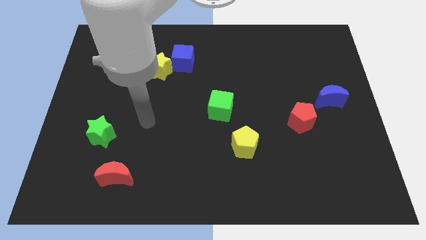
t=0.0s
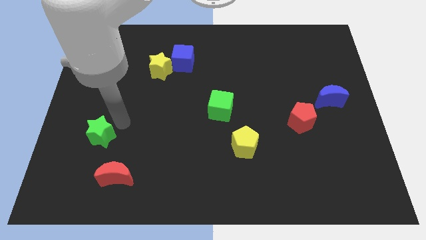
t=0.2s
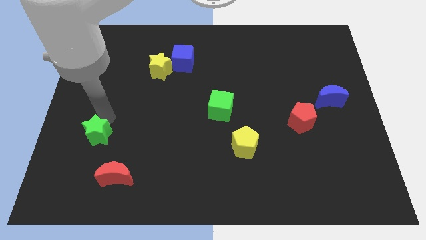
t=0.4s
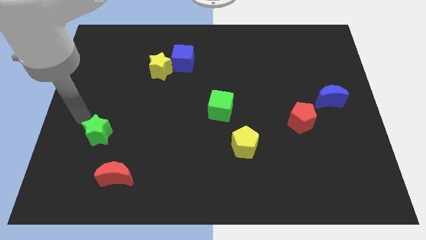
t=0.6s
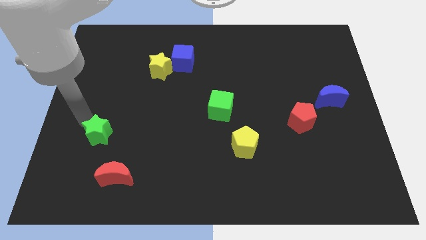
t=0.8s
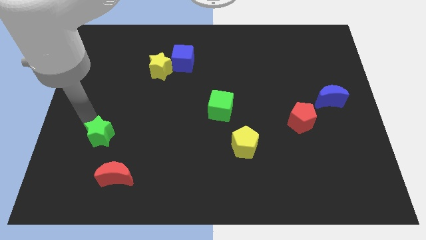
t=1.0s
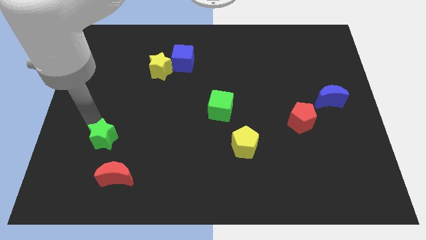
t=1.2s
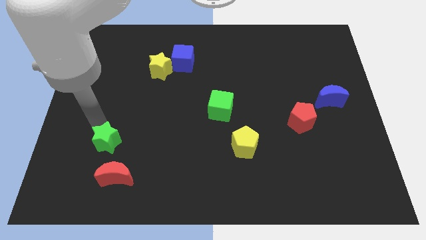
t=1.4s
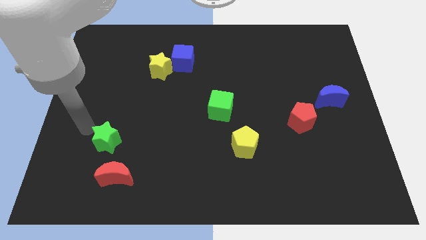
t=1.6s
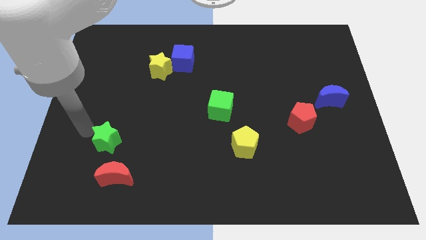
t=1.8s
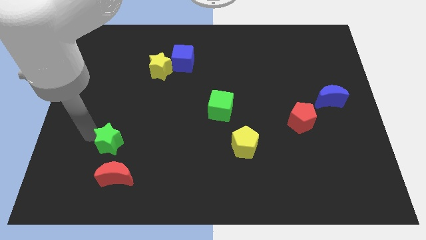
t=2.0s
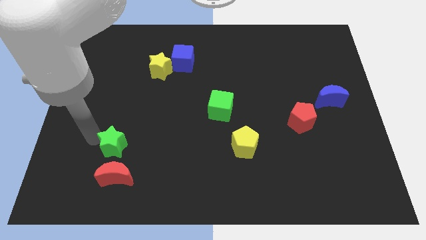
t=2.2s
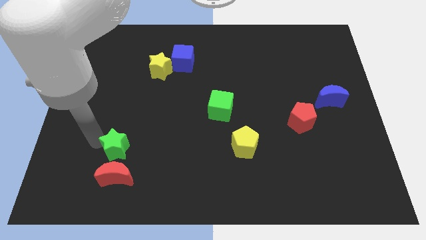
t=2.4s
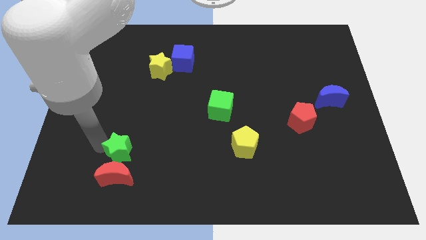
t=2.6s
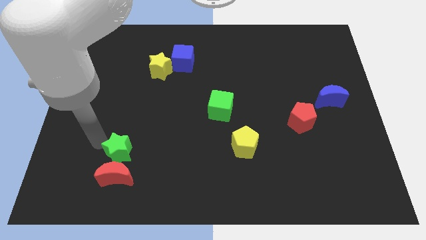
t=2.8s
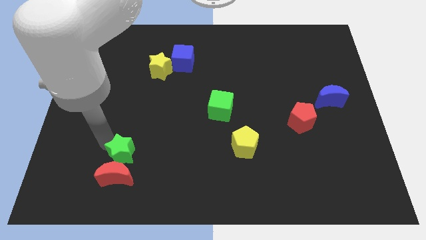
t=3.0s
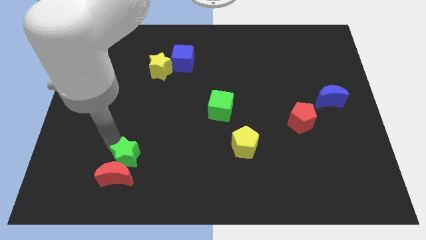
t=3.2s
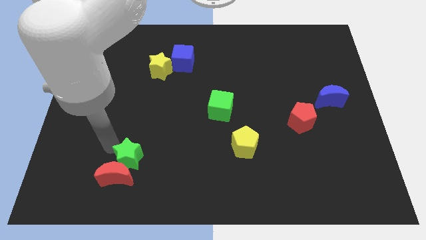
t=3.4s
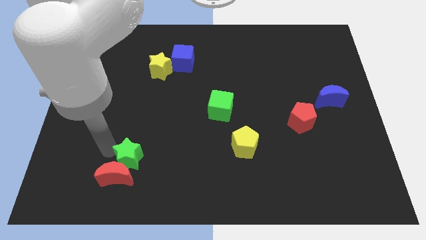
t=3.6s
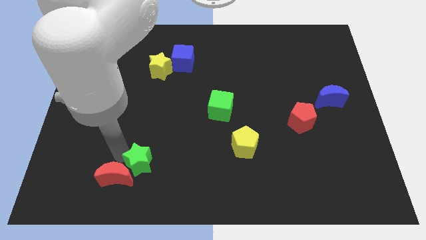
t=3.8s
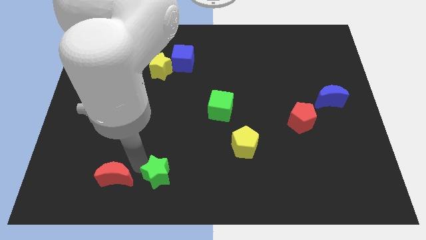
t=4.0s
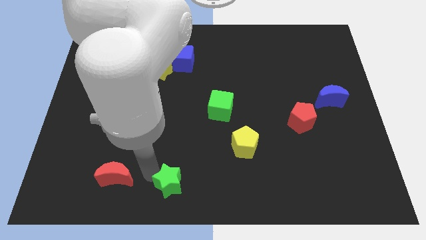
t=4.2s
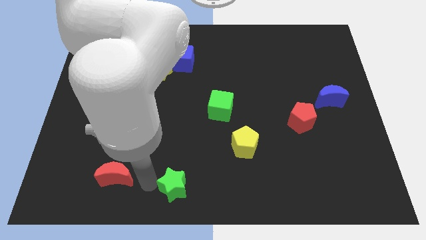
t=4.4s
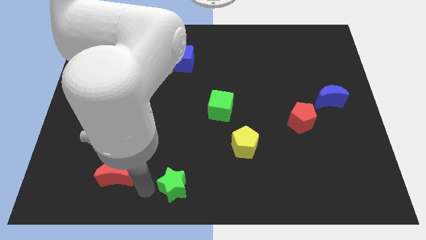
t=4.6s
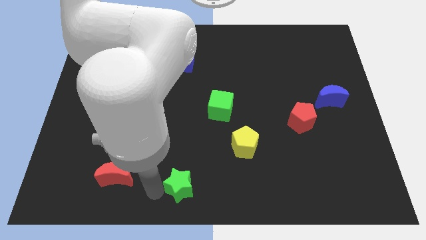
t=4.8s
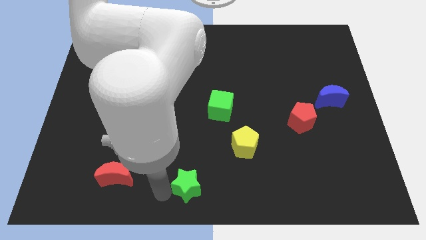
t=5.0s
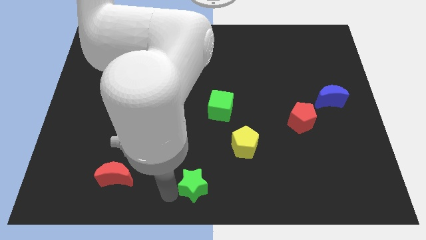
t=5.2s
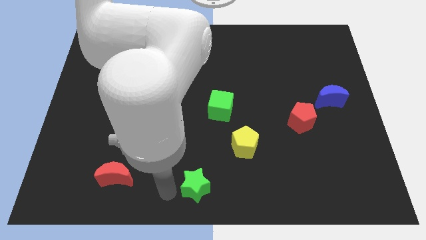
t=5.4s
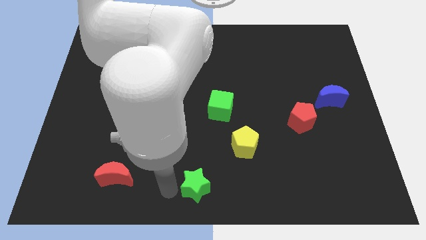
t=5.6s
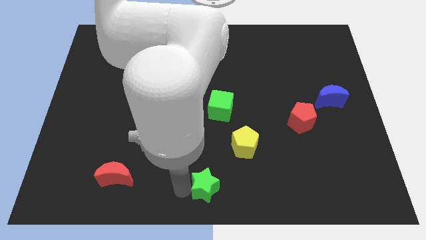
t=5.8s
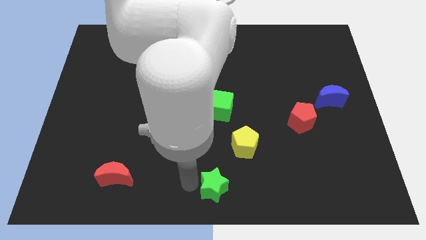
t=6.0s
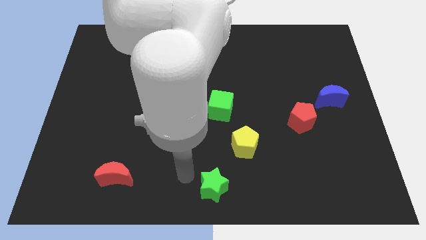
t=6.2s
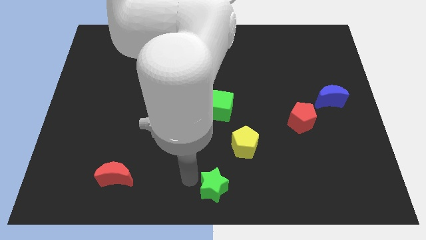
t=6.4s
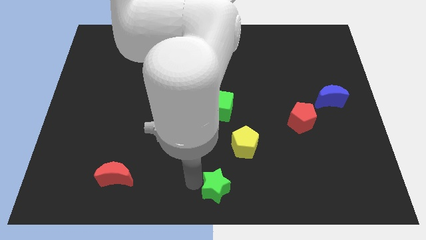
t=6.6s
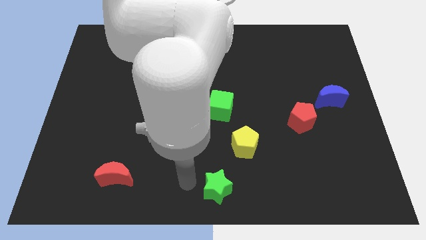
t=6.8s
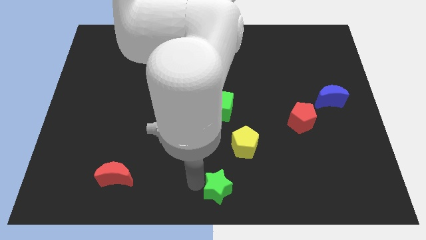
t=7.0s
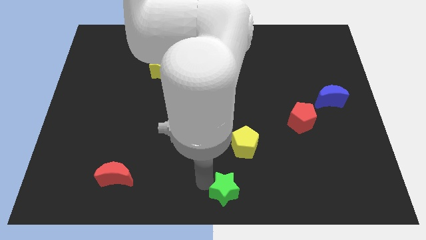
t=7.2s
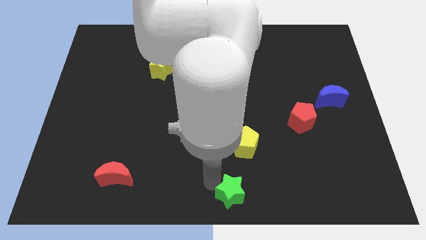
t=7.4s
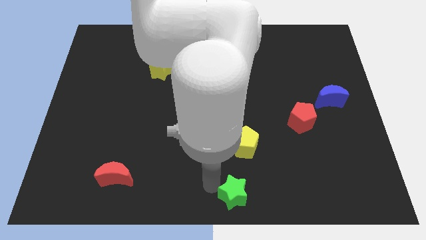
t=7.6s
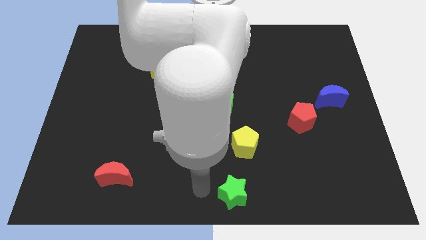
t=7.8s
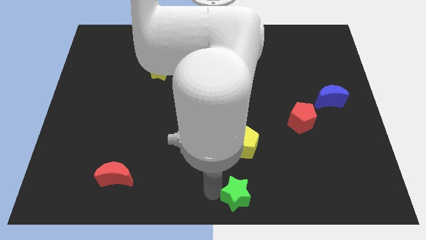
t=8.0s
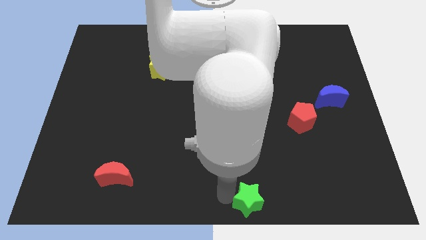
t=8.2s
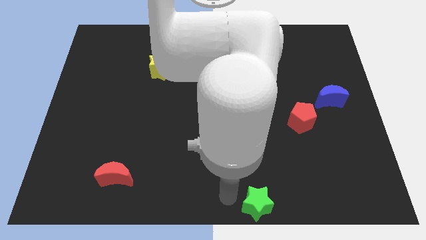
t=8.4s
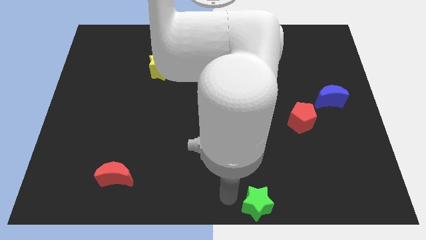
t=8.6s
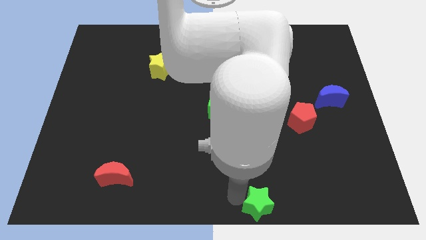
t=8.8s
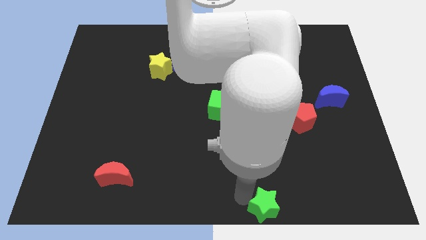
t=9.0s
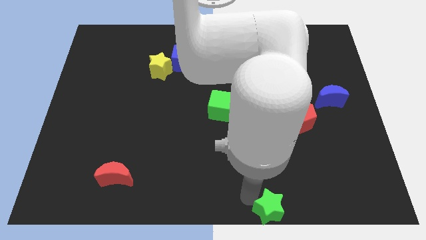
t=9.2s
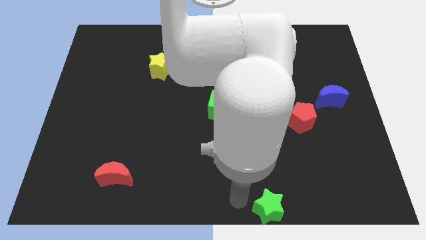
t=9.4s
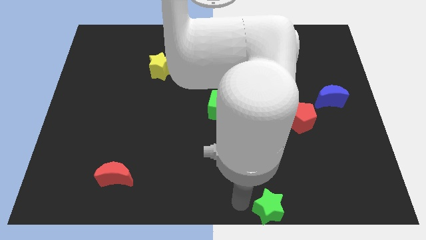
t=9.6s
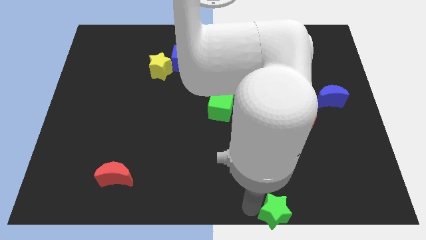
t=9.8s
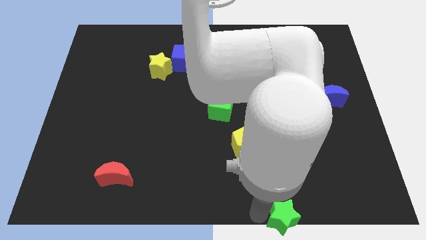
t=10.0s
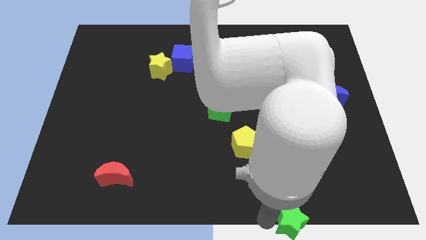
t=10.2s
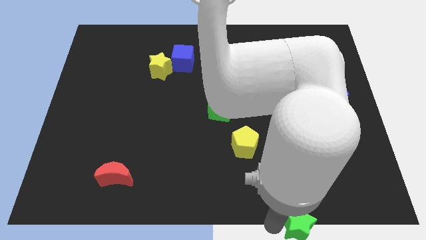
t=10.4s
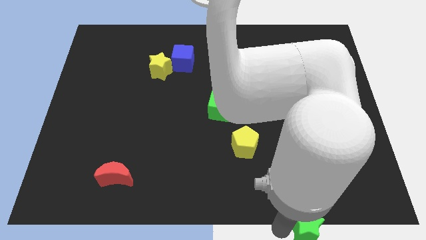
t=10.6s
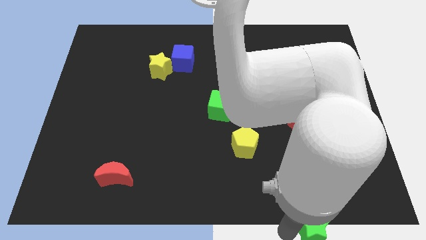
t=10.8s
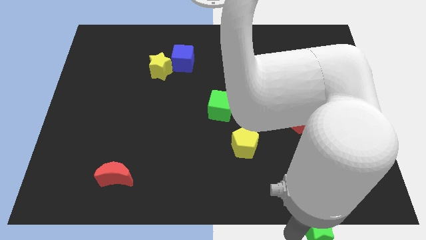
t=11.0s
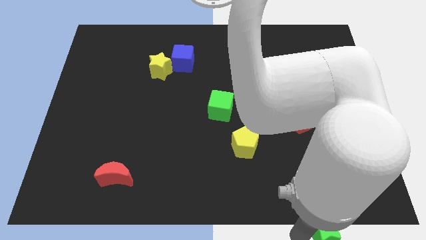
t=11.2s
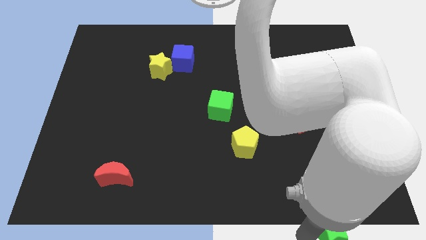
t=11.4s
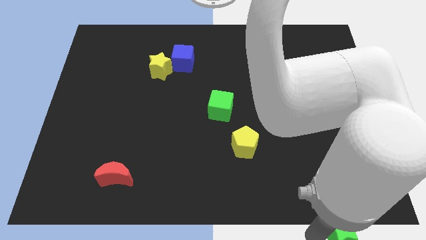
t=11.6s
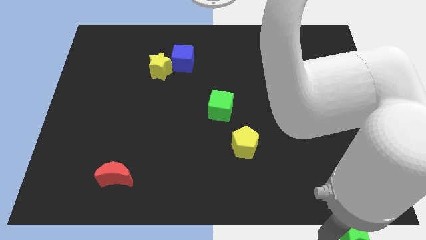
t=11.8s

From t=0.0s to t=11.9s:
move the green star to the bottom right

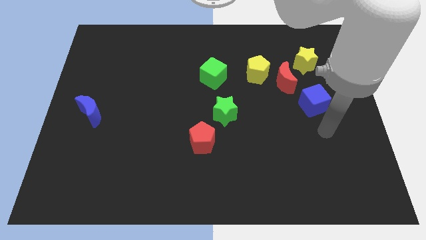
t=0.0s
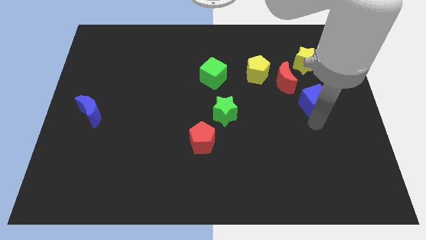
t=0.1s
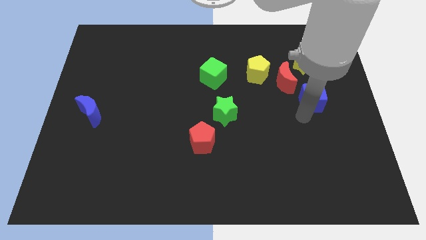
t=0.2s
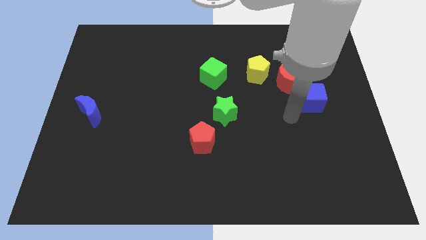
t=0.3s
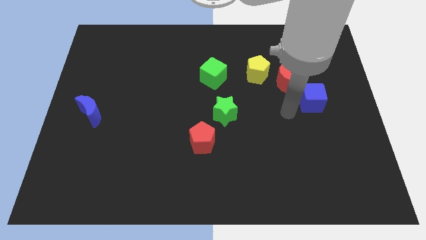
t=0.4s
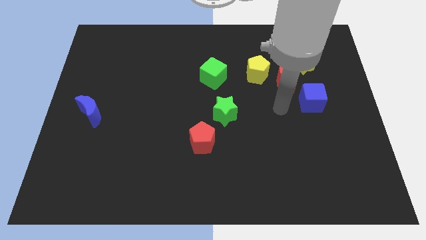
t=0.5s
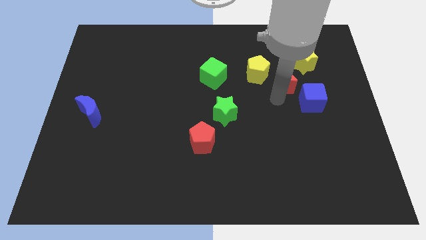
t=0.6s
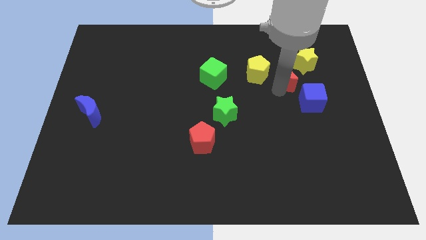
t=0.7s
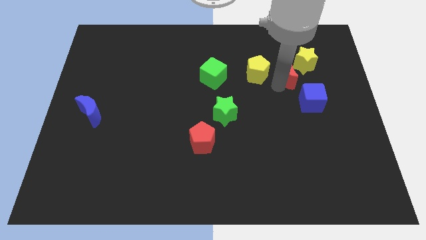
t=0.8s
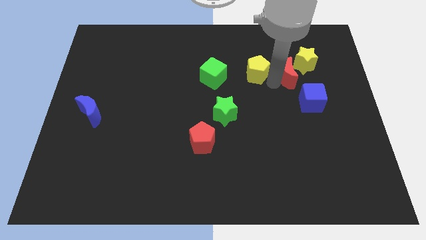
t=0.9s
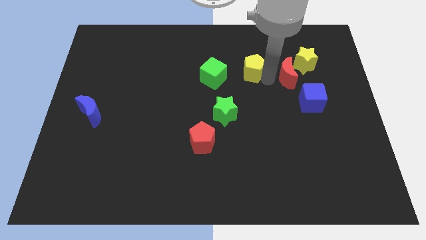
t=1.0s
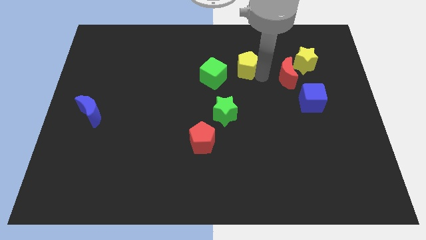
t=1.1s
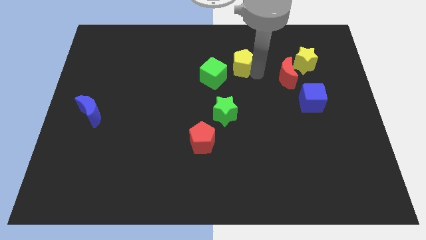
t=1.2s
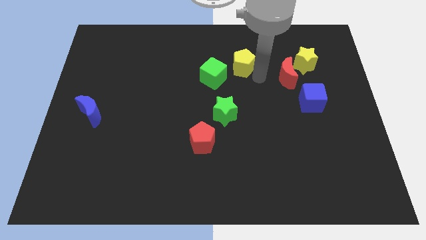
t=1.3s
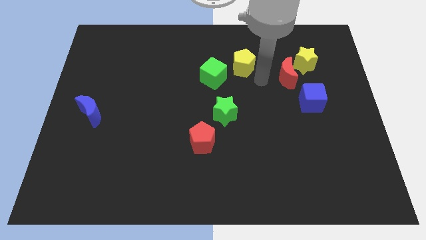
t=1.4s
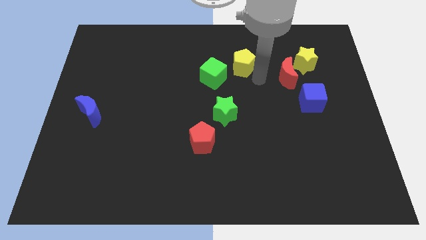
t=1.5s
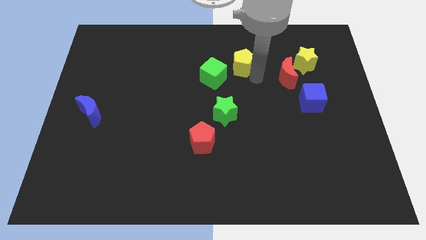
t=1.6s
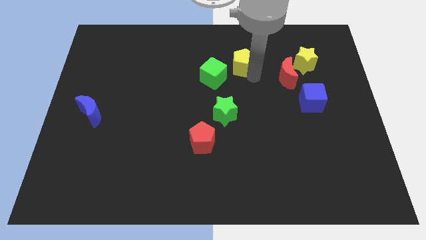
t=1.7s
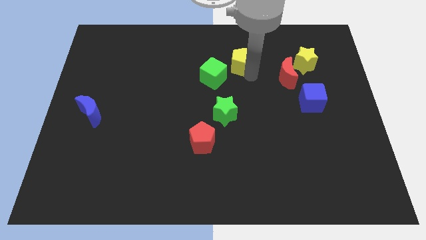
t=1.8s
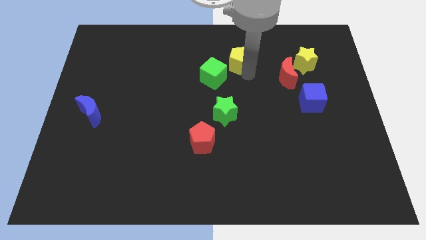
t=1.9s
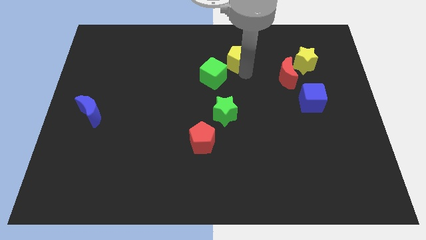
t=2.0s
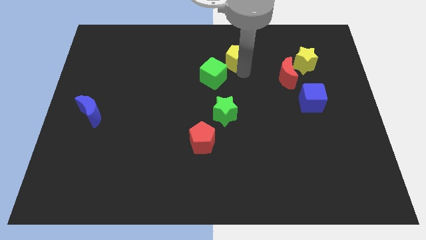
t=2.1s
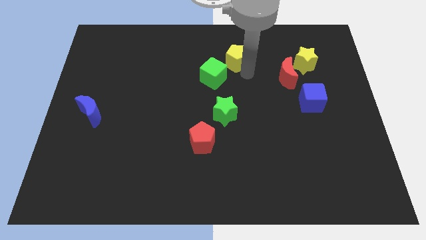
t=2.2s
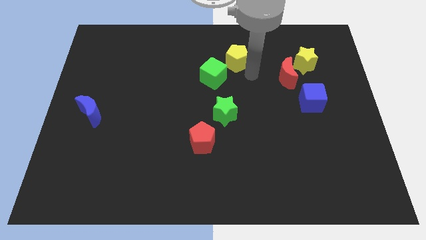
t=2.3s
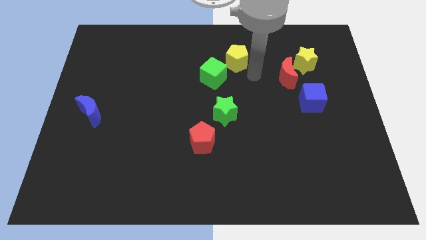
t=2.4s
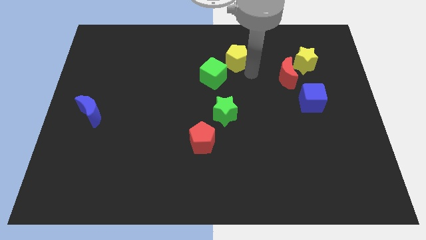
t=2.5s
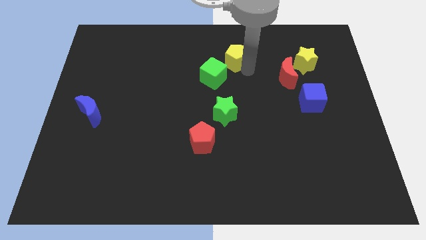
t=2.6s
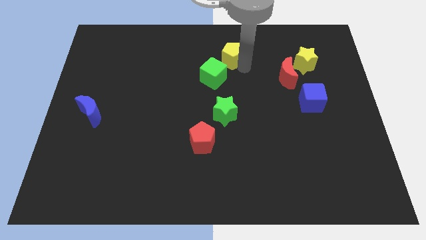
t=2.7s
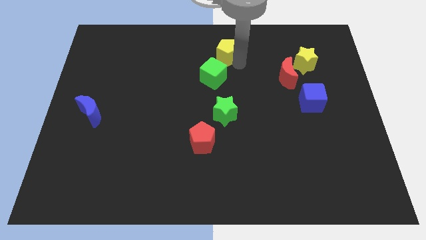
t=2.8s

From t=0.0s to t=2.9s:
put the yellow pentagon to the towards your base
